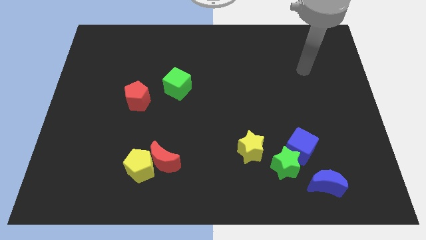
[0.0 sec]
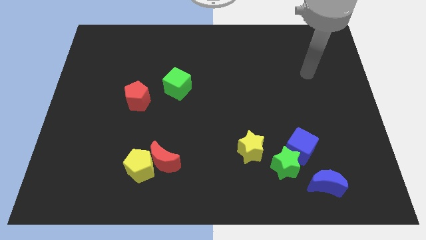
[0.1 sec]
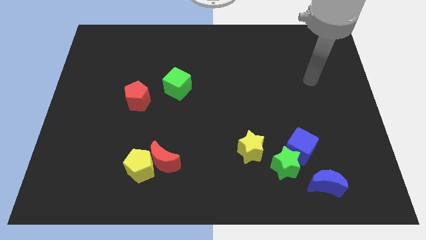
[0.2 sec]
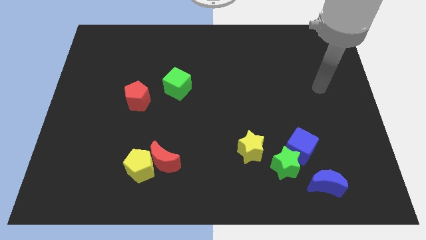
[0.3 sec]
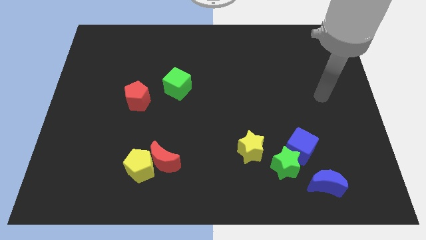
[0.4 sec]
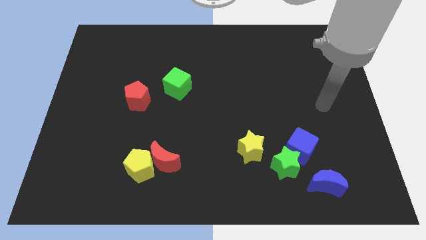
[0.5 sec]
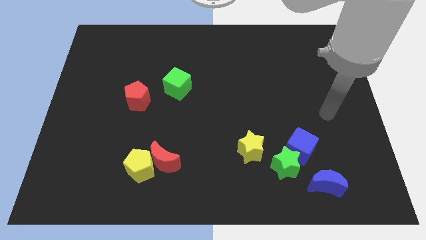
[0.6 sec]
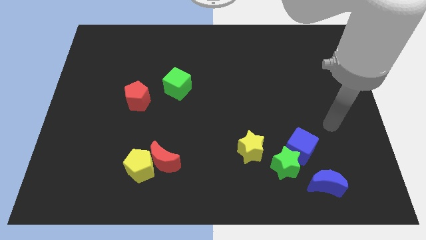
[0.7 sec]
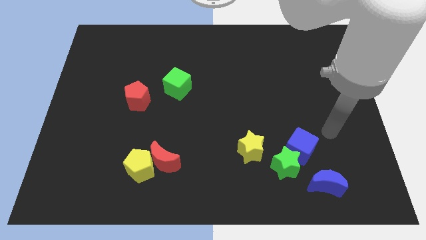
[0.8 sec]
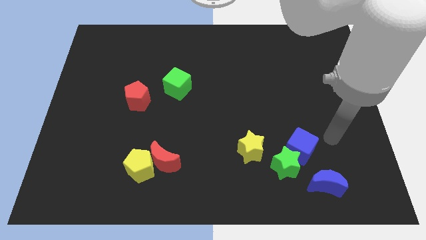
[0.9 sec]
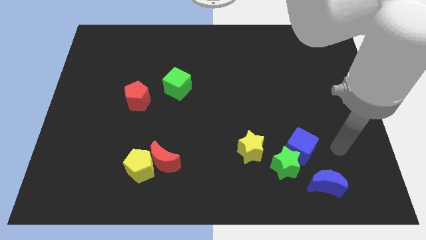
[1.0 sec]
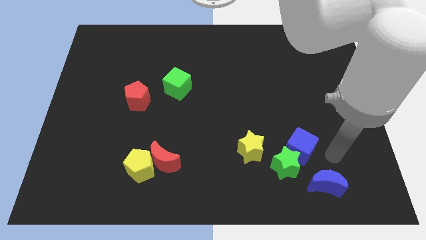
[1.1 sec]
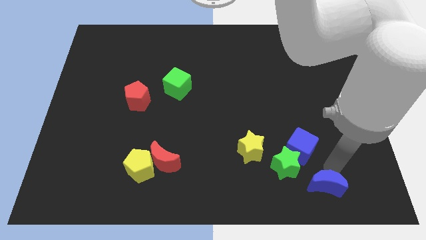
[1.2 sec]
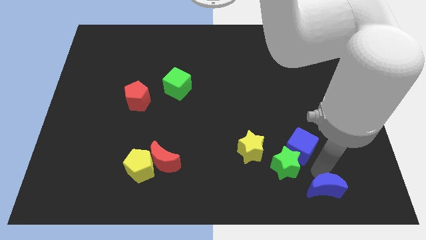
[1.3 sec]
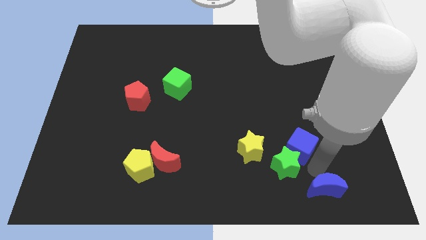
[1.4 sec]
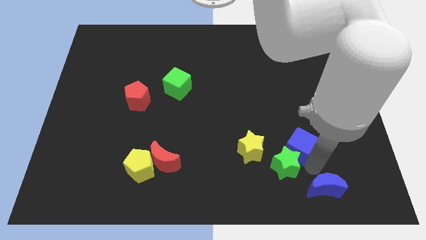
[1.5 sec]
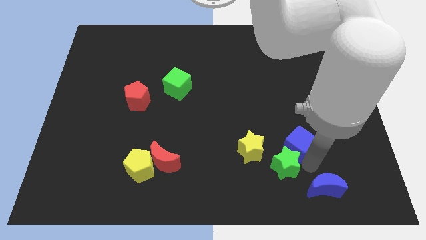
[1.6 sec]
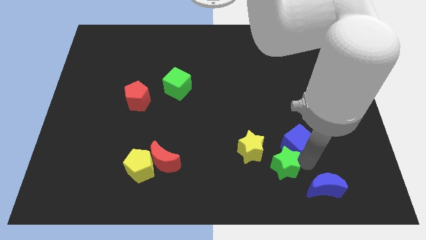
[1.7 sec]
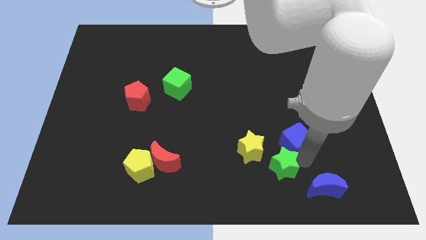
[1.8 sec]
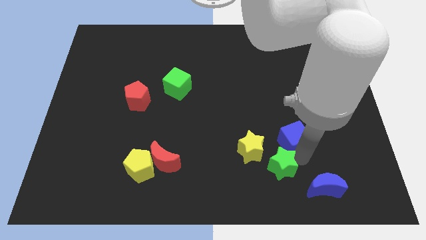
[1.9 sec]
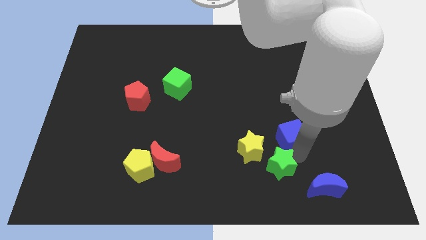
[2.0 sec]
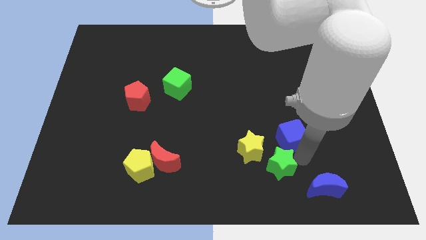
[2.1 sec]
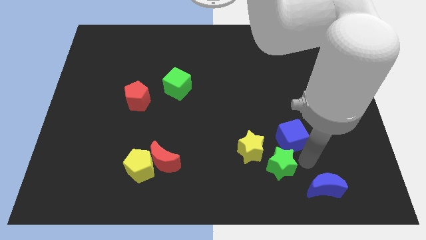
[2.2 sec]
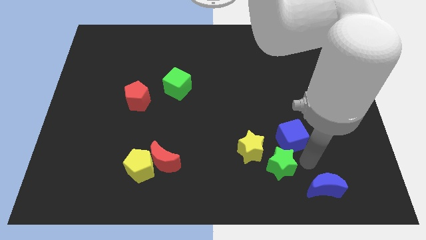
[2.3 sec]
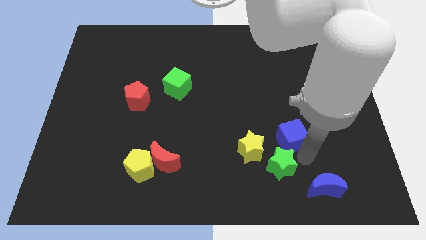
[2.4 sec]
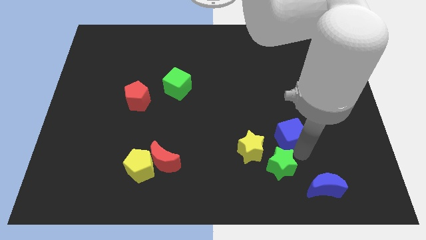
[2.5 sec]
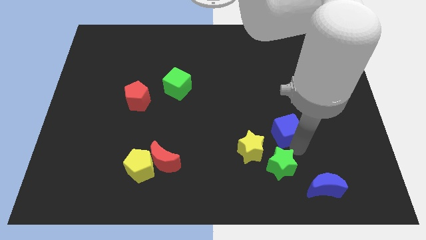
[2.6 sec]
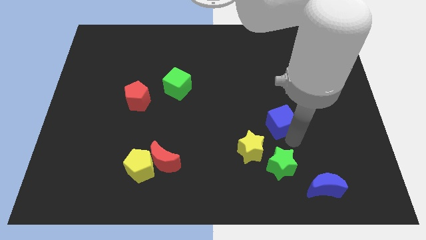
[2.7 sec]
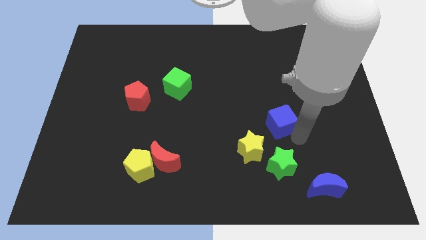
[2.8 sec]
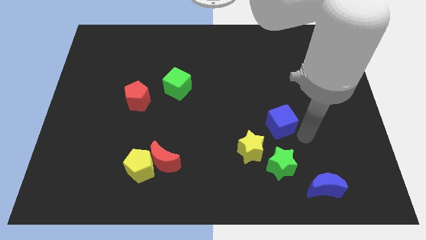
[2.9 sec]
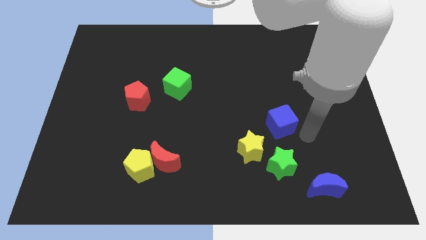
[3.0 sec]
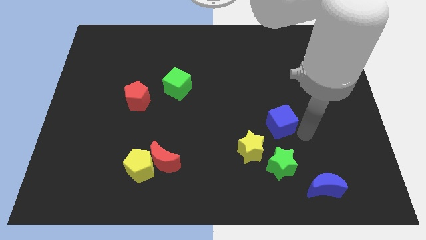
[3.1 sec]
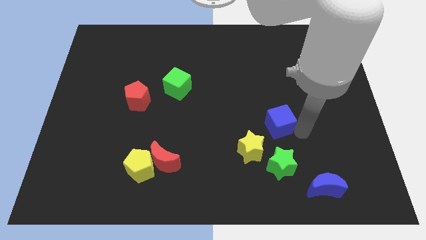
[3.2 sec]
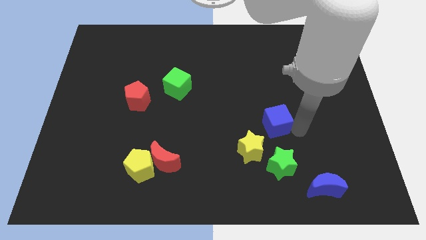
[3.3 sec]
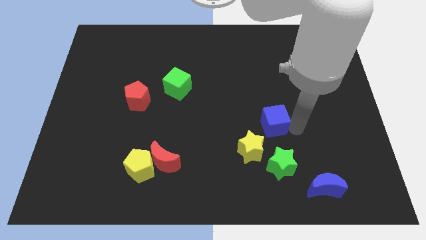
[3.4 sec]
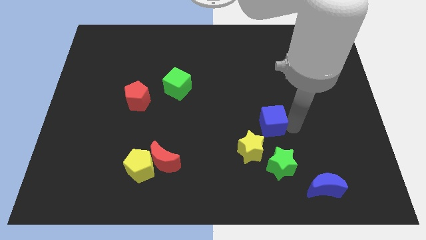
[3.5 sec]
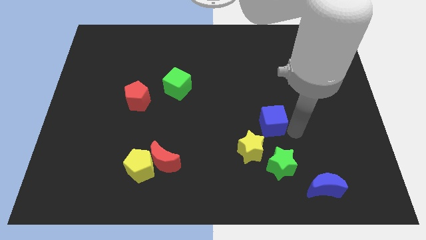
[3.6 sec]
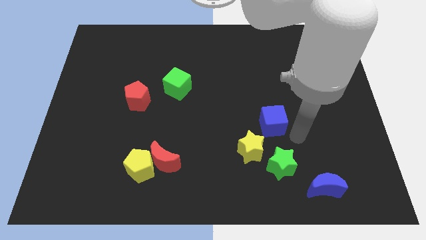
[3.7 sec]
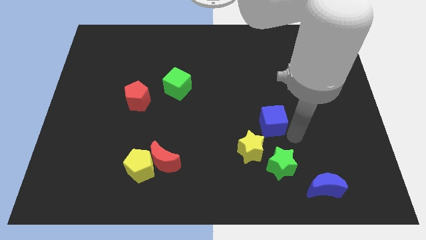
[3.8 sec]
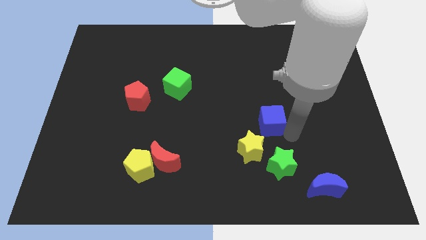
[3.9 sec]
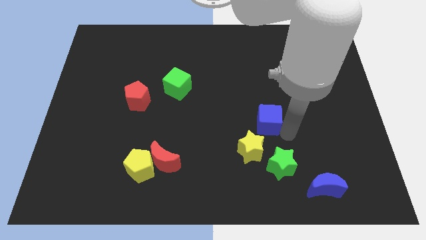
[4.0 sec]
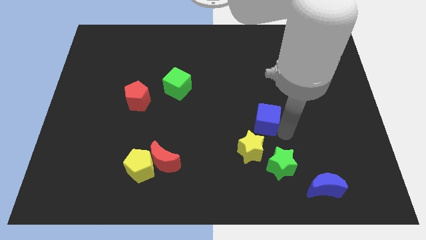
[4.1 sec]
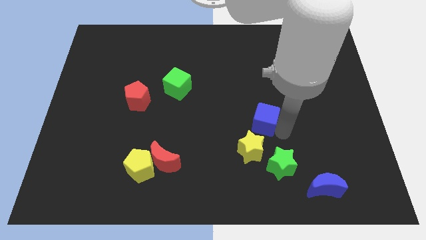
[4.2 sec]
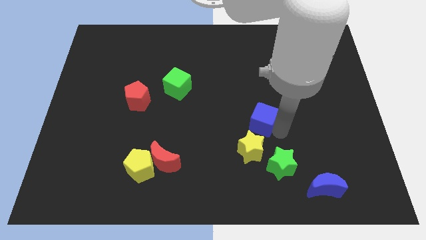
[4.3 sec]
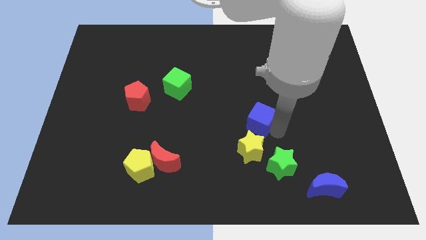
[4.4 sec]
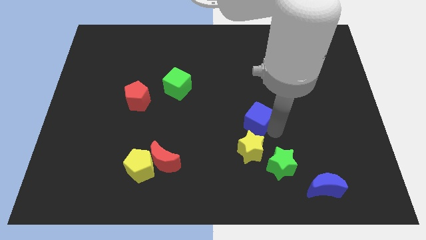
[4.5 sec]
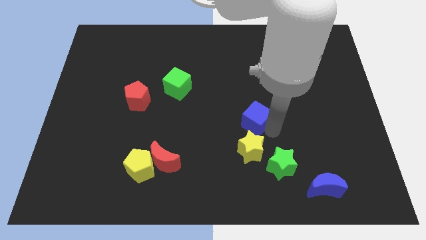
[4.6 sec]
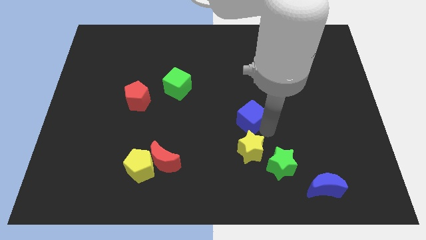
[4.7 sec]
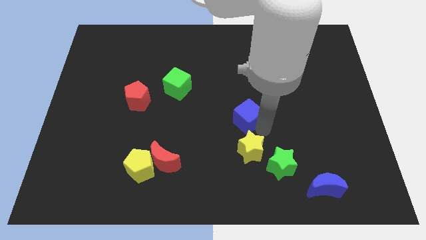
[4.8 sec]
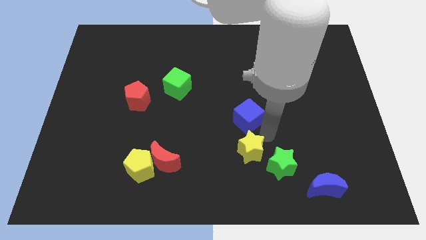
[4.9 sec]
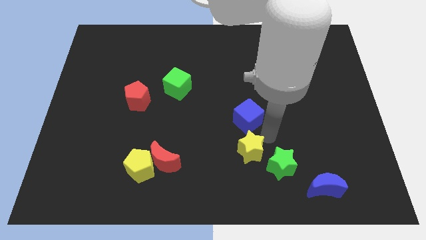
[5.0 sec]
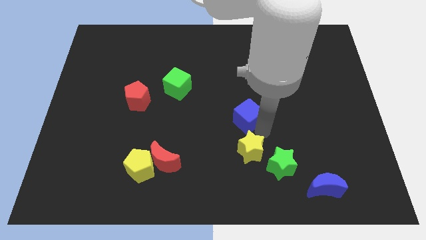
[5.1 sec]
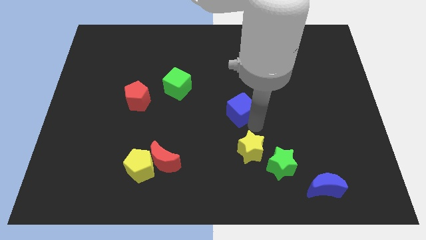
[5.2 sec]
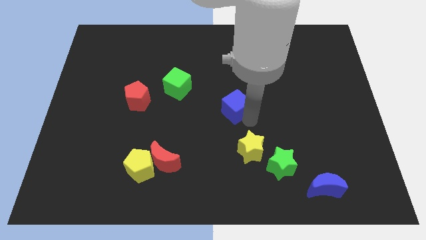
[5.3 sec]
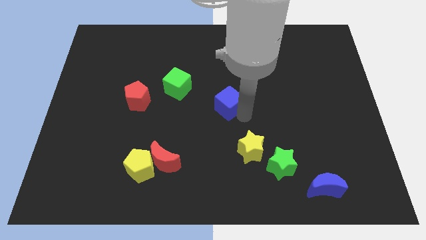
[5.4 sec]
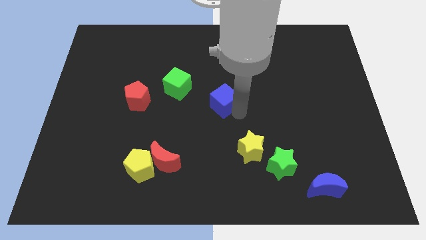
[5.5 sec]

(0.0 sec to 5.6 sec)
push the blue cube up and then left

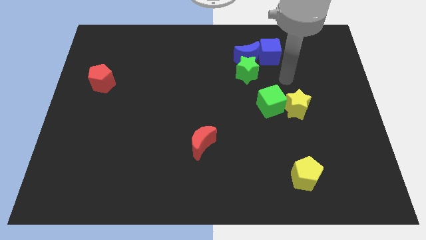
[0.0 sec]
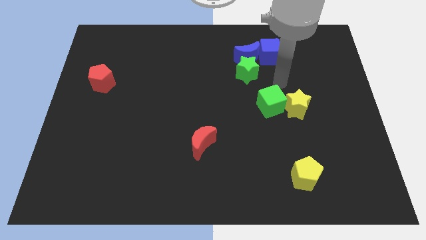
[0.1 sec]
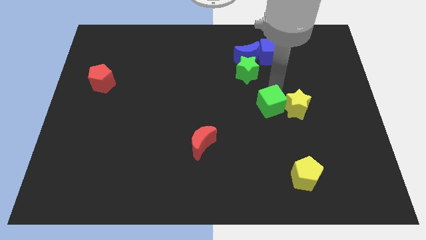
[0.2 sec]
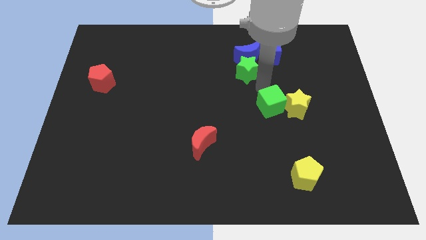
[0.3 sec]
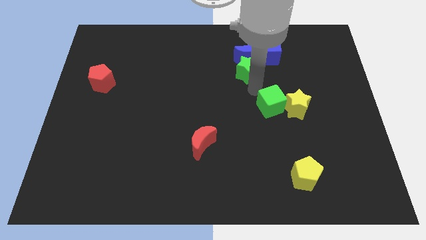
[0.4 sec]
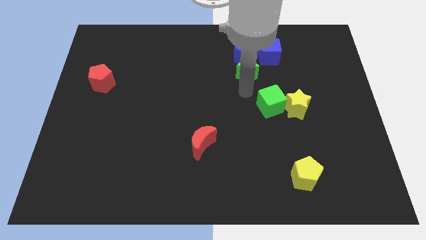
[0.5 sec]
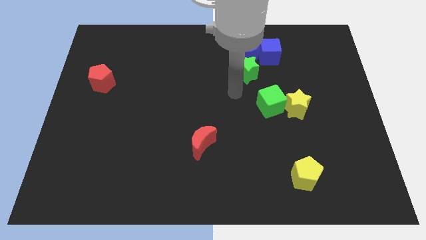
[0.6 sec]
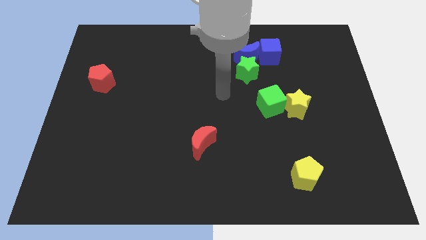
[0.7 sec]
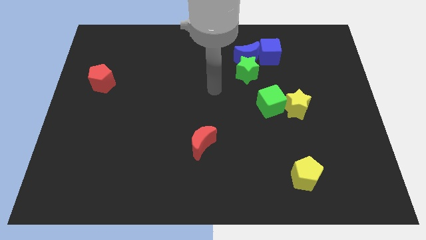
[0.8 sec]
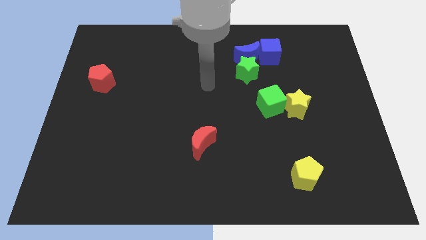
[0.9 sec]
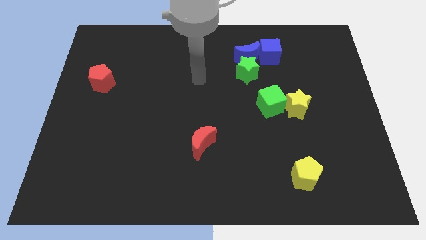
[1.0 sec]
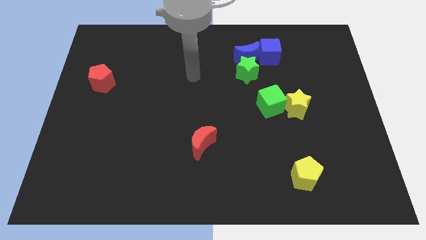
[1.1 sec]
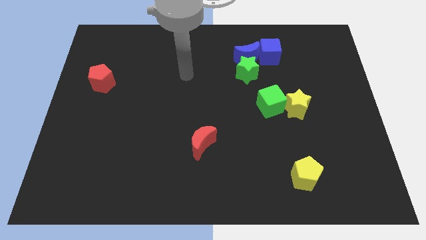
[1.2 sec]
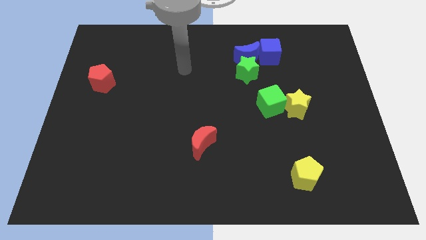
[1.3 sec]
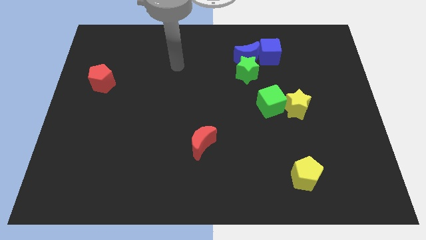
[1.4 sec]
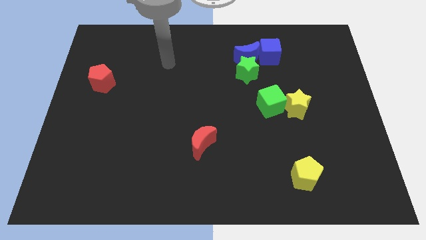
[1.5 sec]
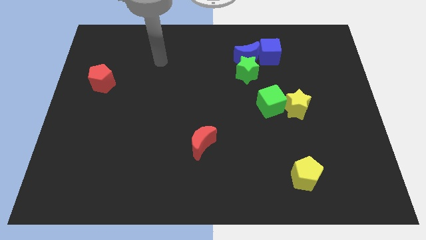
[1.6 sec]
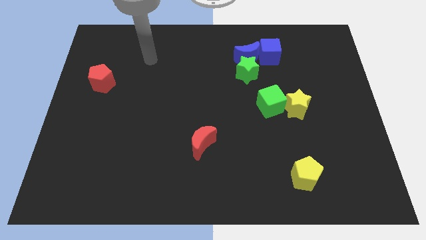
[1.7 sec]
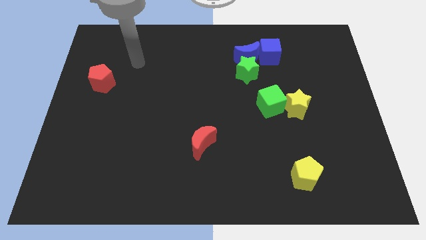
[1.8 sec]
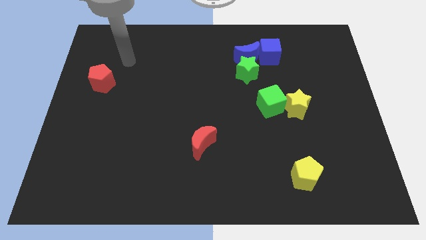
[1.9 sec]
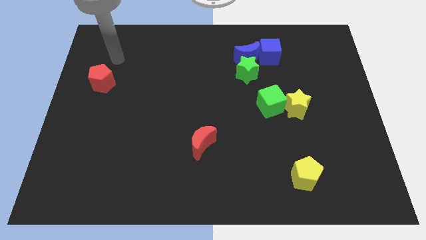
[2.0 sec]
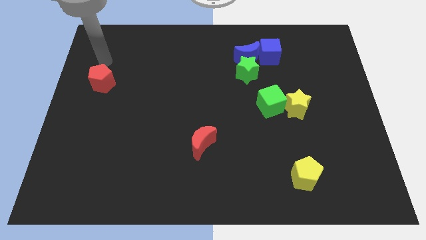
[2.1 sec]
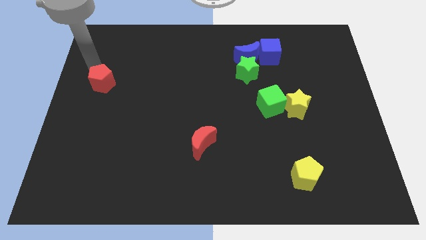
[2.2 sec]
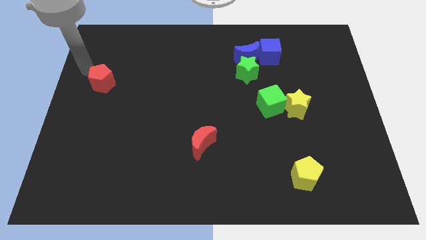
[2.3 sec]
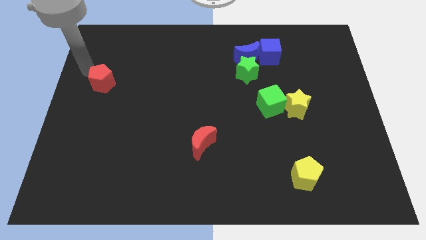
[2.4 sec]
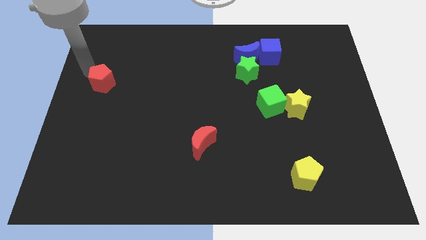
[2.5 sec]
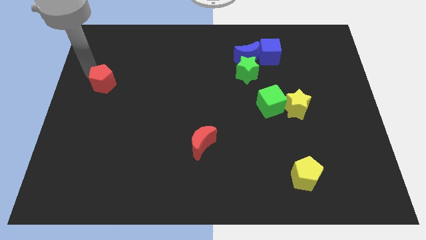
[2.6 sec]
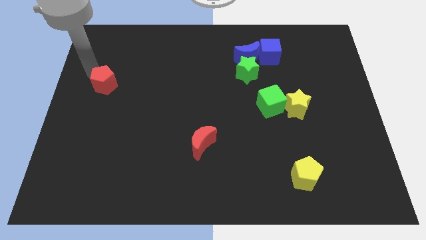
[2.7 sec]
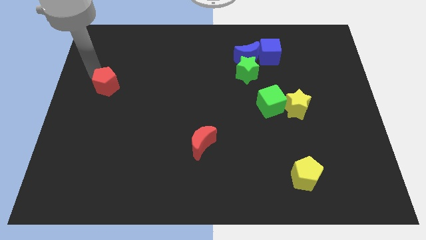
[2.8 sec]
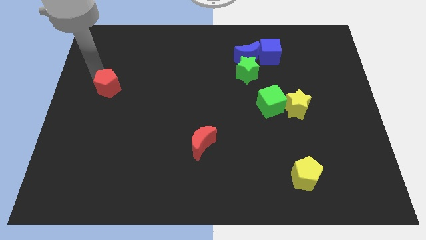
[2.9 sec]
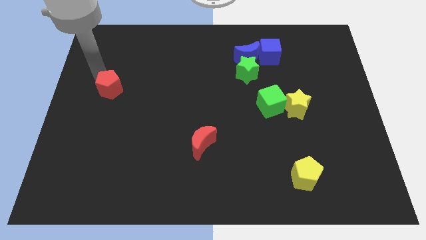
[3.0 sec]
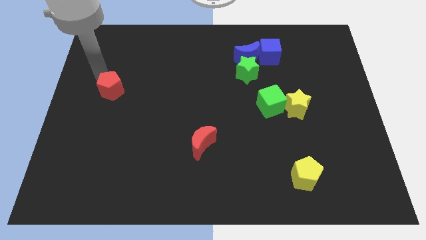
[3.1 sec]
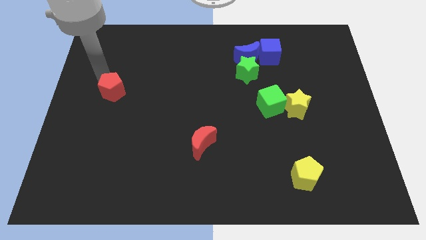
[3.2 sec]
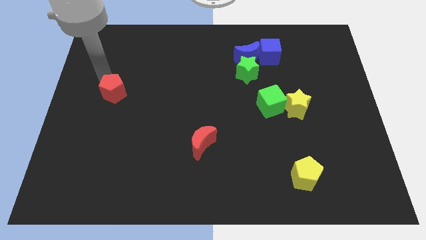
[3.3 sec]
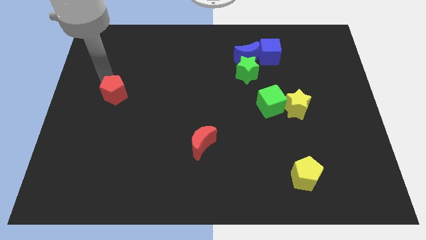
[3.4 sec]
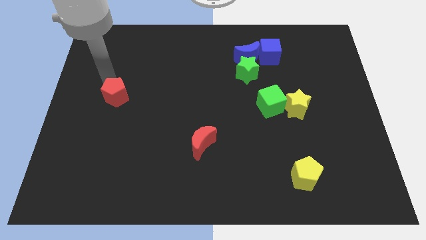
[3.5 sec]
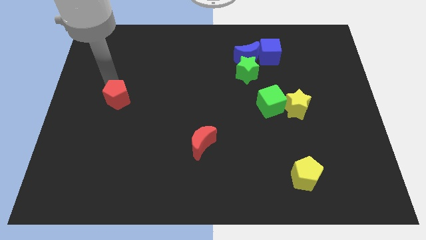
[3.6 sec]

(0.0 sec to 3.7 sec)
move the red pentagon somewhat down and to the right
